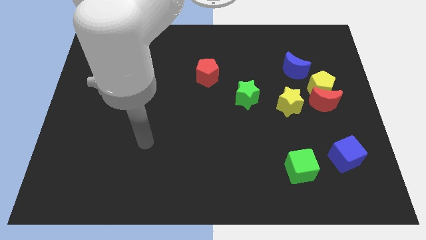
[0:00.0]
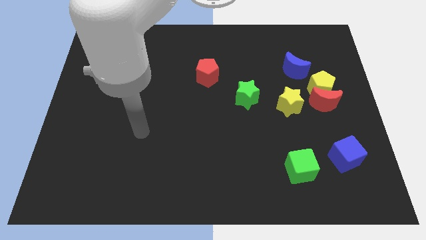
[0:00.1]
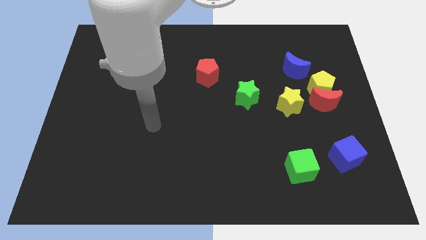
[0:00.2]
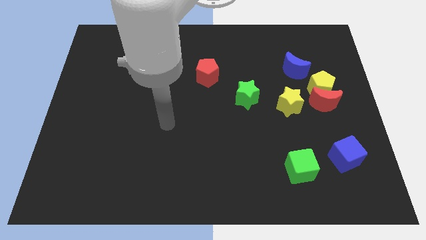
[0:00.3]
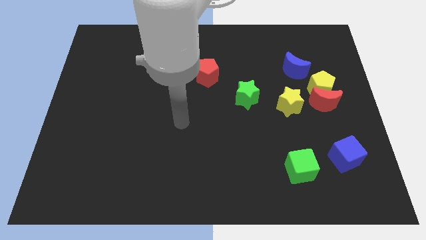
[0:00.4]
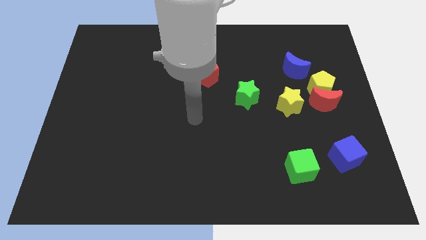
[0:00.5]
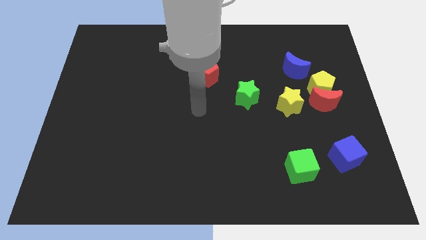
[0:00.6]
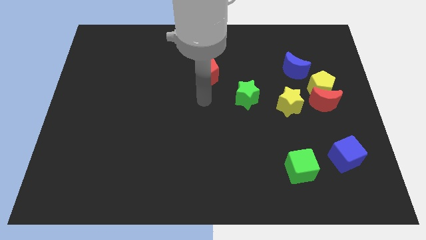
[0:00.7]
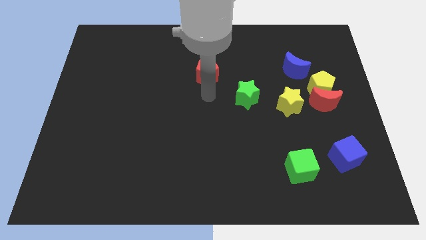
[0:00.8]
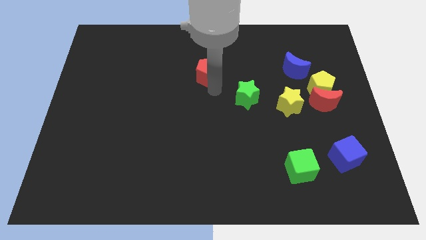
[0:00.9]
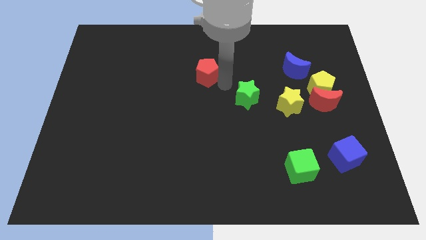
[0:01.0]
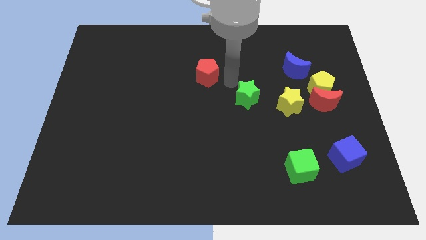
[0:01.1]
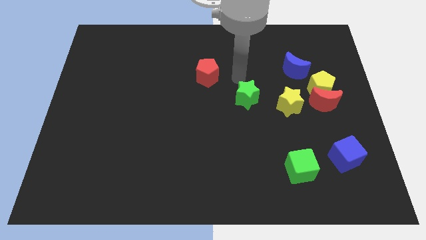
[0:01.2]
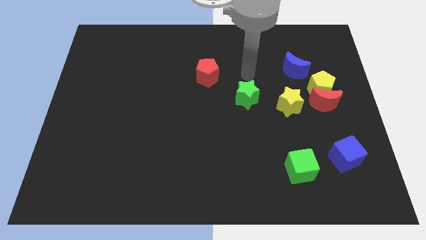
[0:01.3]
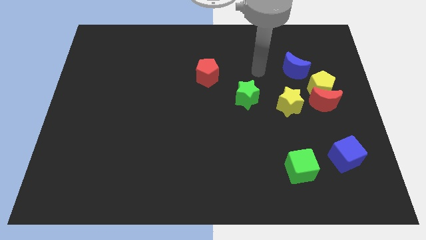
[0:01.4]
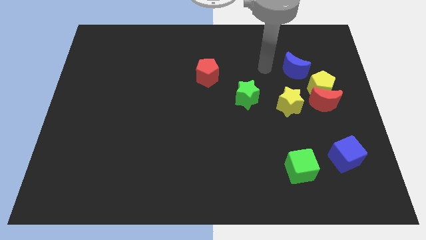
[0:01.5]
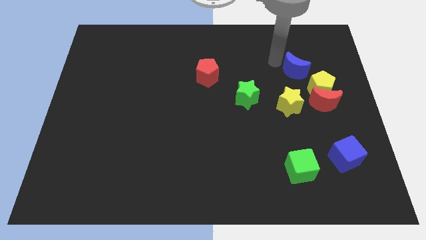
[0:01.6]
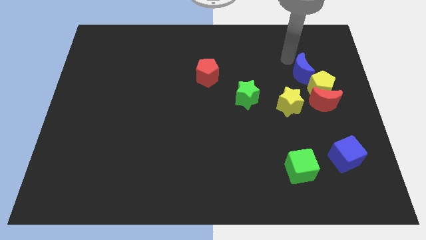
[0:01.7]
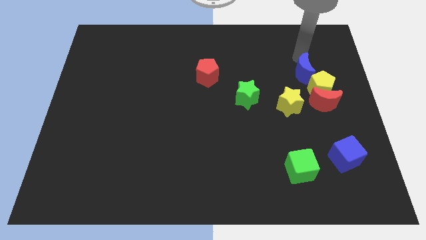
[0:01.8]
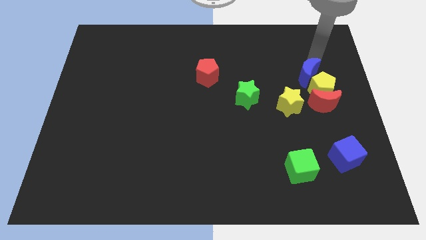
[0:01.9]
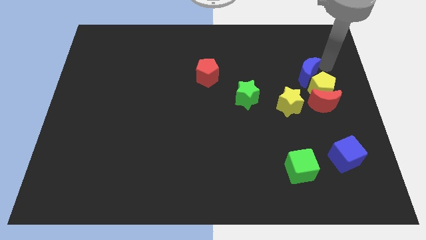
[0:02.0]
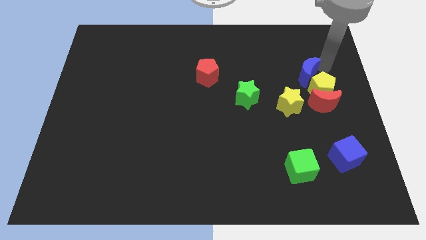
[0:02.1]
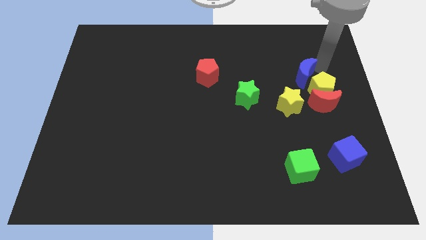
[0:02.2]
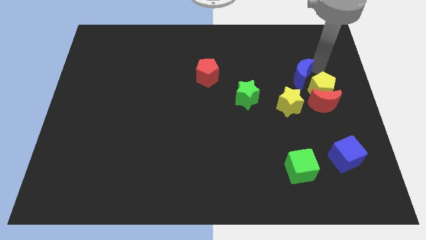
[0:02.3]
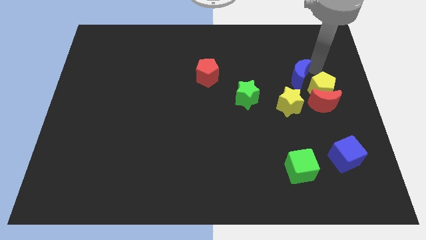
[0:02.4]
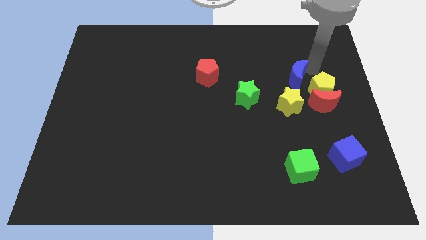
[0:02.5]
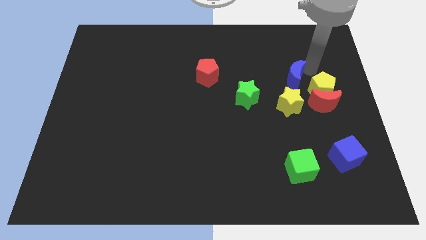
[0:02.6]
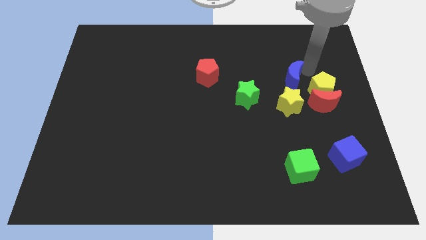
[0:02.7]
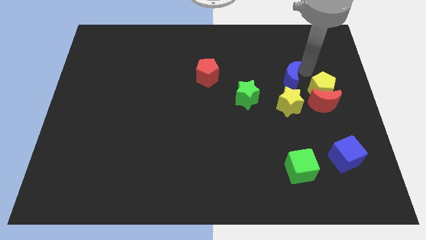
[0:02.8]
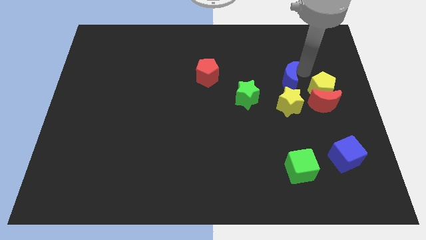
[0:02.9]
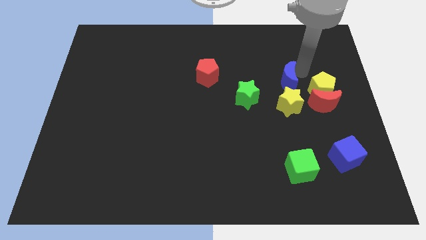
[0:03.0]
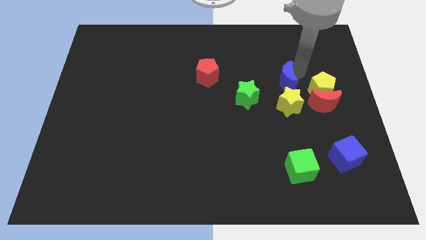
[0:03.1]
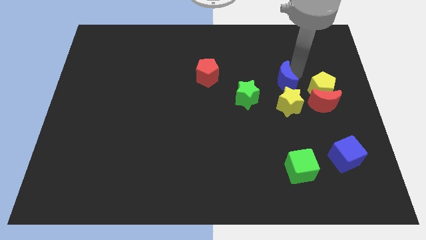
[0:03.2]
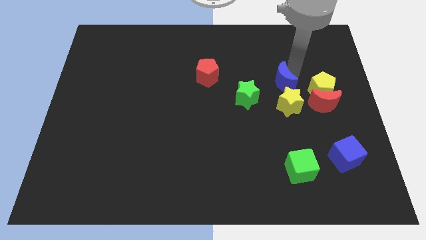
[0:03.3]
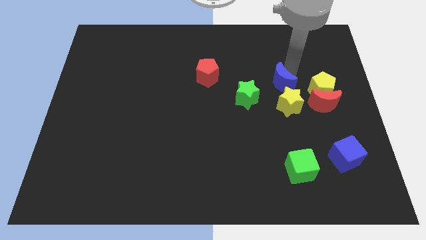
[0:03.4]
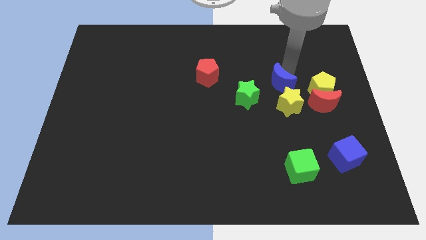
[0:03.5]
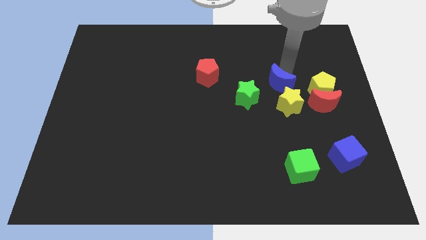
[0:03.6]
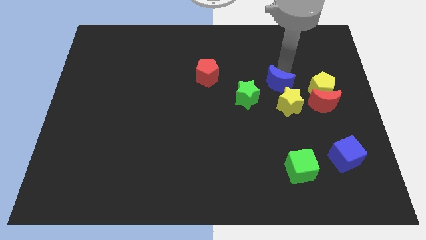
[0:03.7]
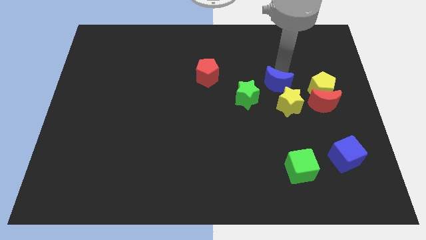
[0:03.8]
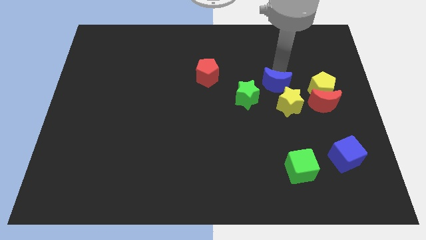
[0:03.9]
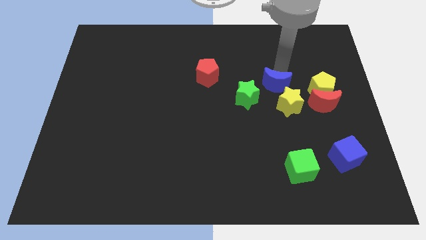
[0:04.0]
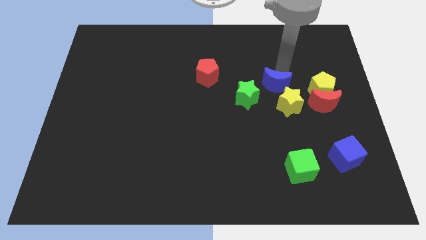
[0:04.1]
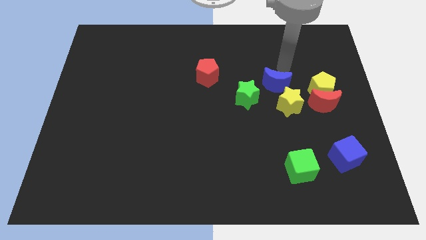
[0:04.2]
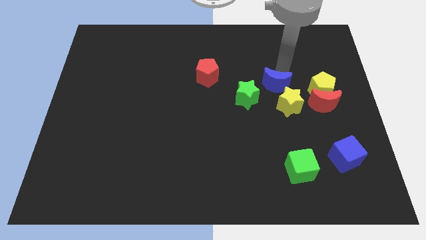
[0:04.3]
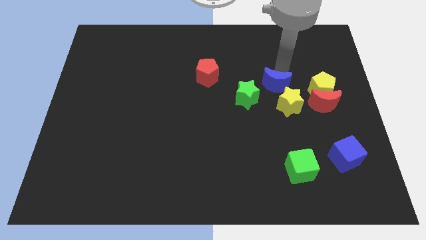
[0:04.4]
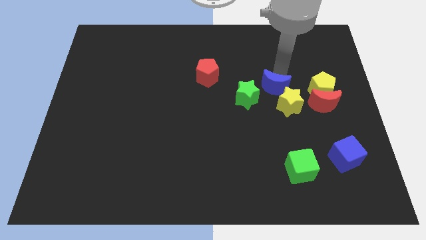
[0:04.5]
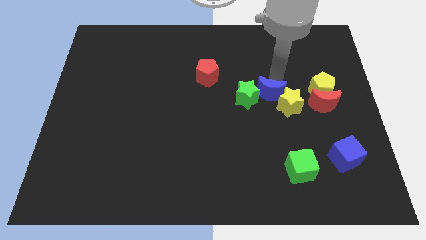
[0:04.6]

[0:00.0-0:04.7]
move the blue moon to the bottom right side of the green star

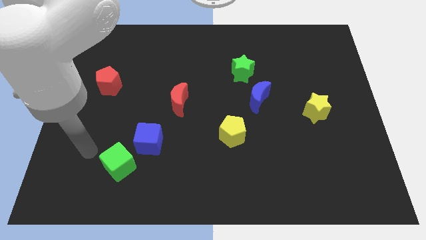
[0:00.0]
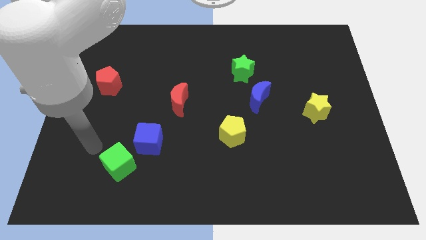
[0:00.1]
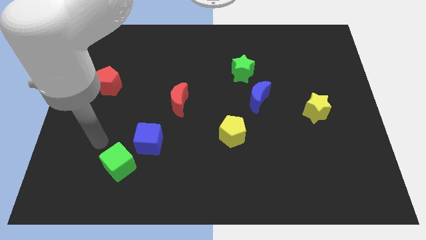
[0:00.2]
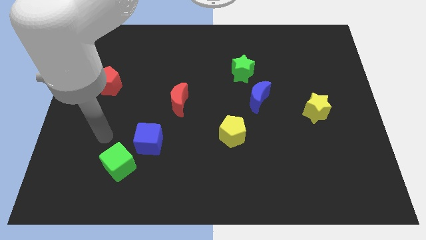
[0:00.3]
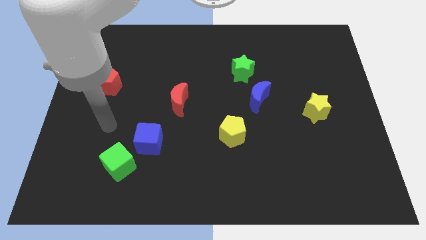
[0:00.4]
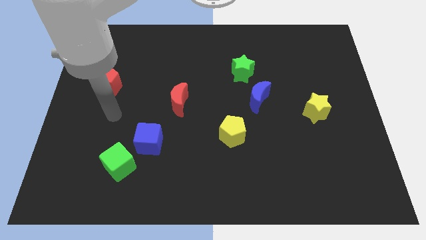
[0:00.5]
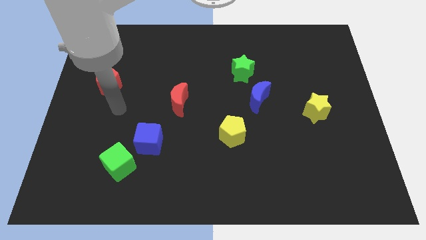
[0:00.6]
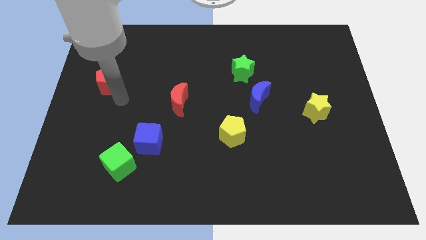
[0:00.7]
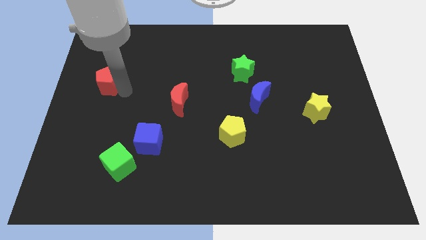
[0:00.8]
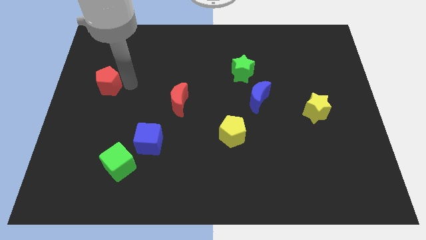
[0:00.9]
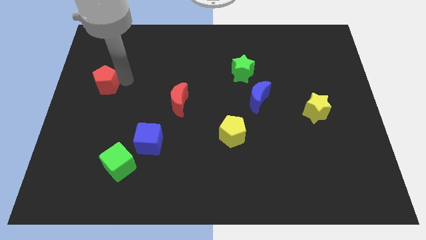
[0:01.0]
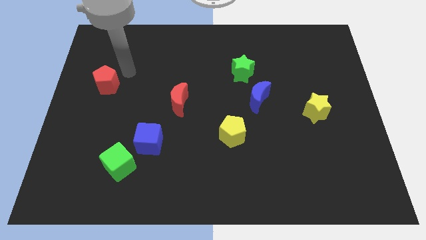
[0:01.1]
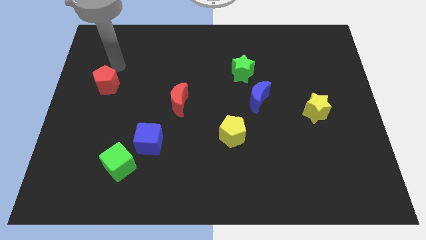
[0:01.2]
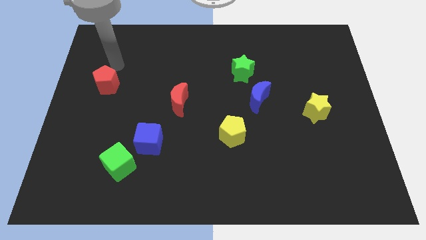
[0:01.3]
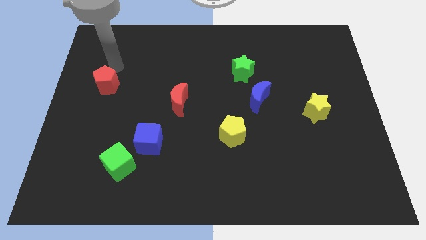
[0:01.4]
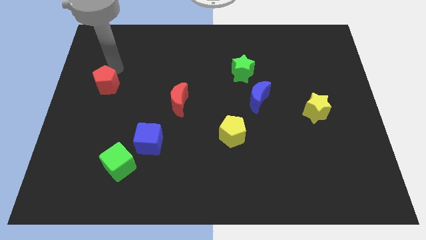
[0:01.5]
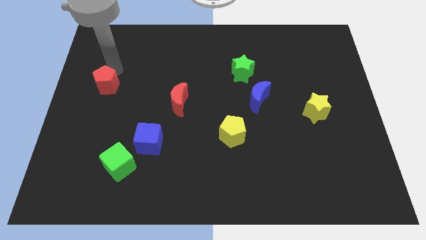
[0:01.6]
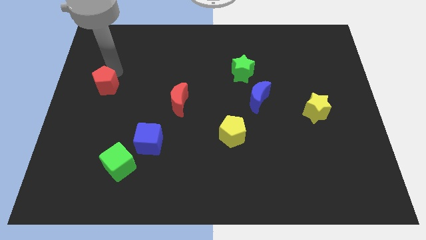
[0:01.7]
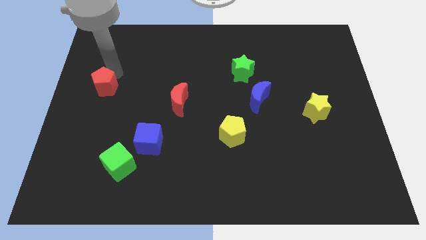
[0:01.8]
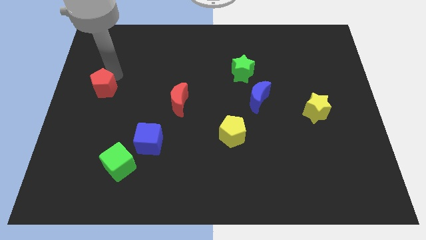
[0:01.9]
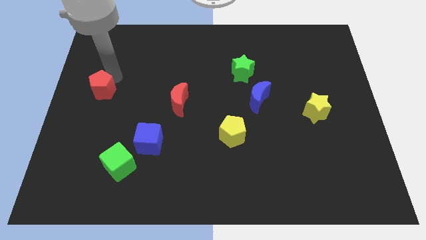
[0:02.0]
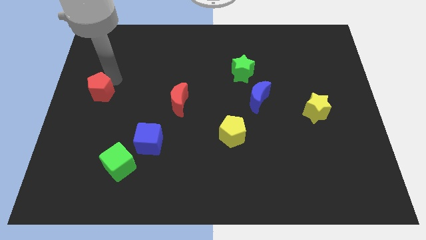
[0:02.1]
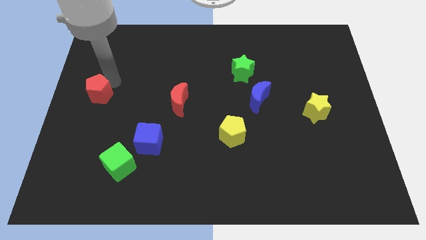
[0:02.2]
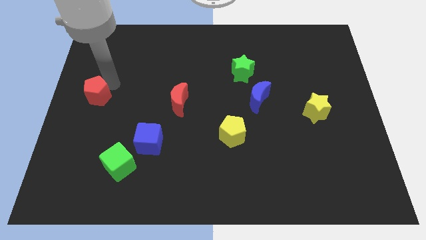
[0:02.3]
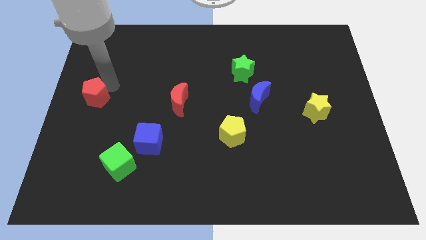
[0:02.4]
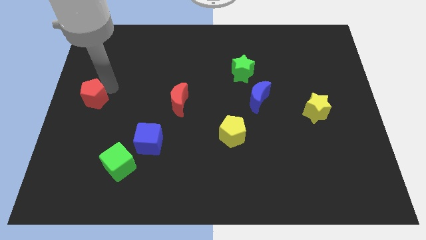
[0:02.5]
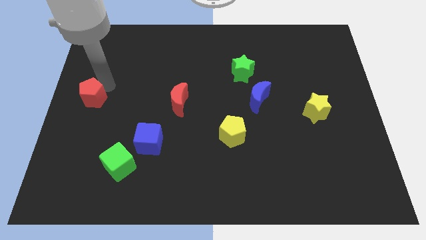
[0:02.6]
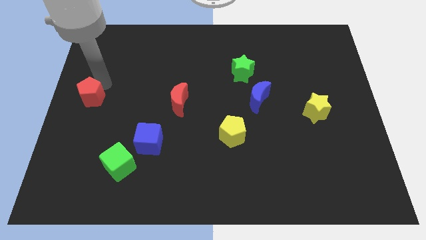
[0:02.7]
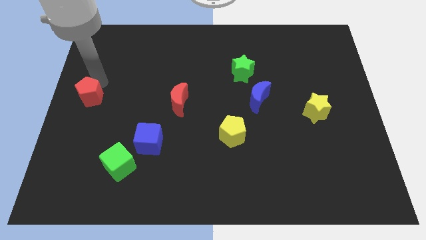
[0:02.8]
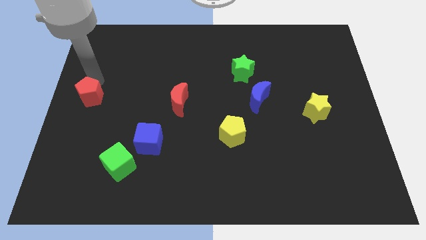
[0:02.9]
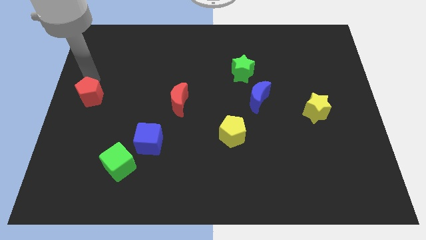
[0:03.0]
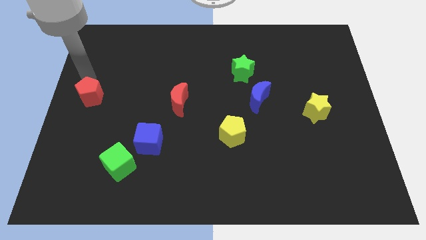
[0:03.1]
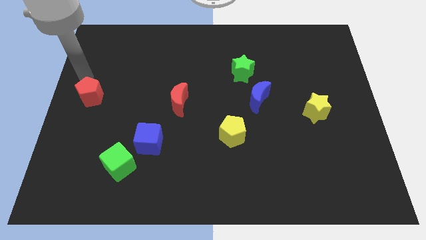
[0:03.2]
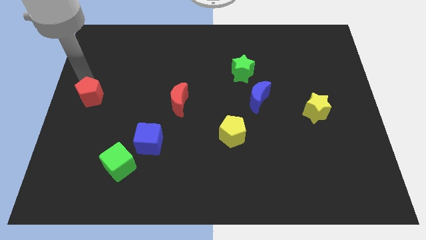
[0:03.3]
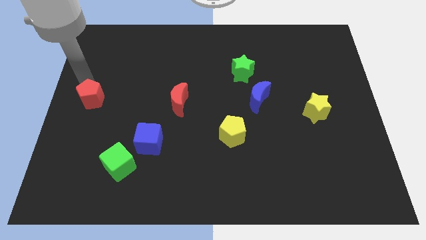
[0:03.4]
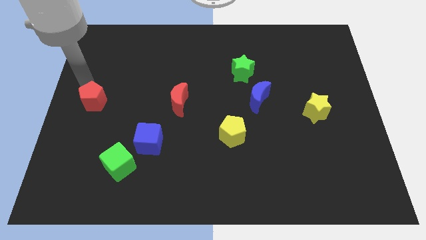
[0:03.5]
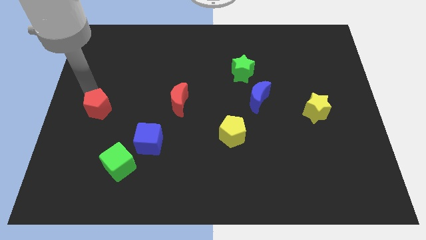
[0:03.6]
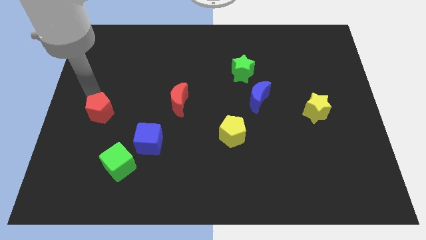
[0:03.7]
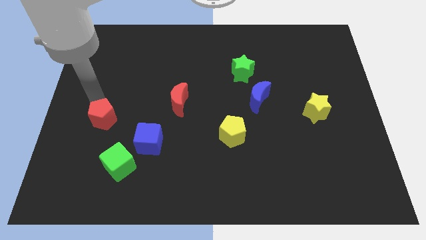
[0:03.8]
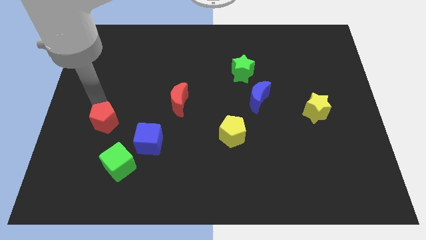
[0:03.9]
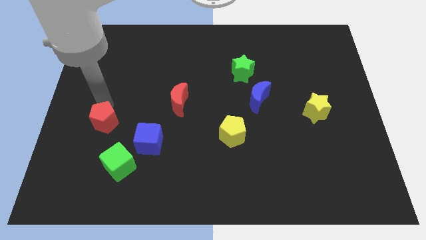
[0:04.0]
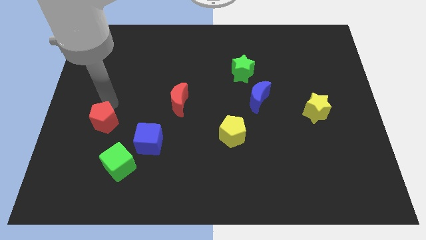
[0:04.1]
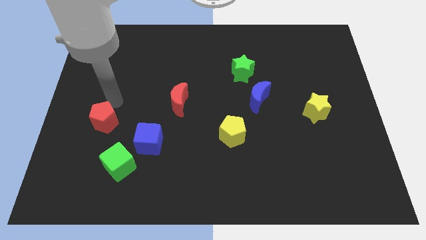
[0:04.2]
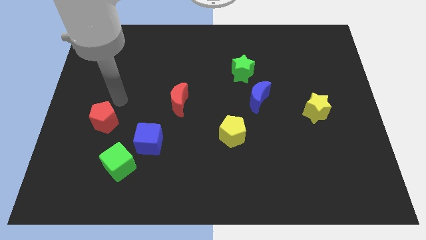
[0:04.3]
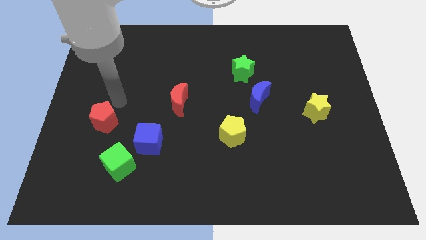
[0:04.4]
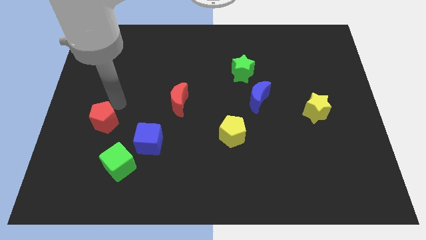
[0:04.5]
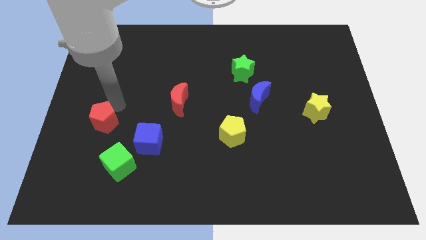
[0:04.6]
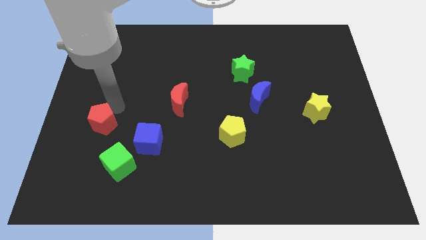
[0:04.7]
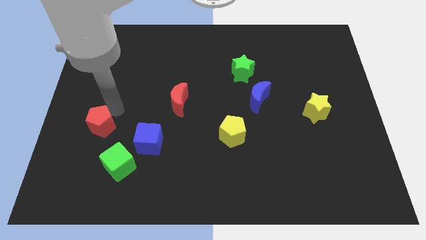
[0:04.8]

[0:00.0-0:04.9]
move the red pentagon to the top left of the green cube
